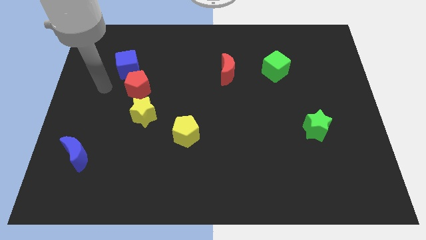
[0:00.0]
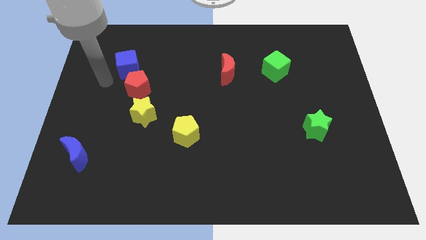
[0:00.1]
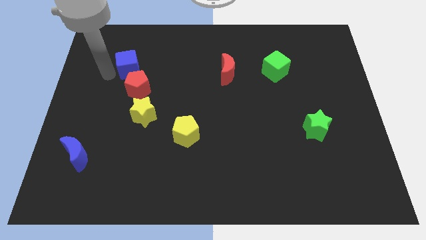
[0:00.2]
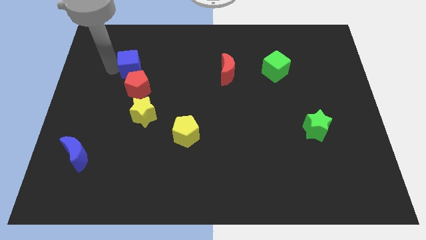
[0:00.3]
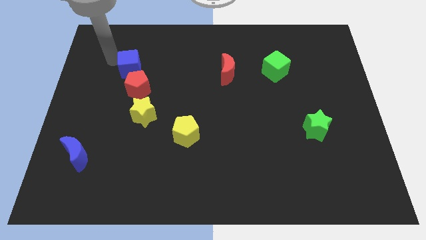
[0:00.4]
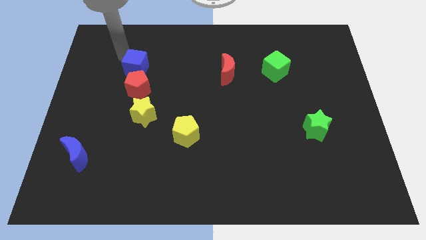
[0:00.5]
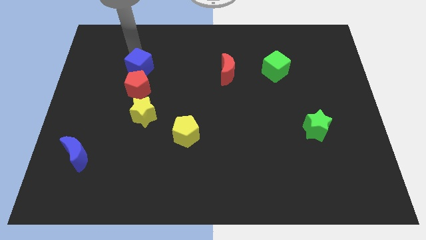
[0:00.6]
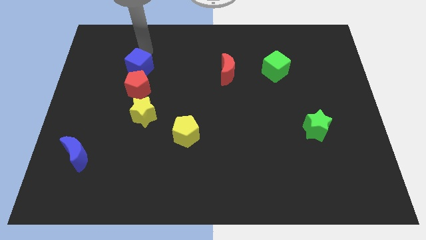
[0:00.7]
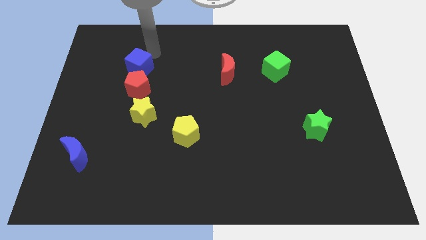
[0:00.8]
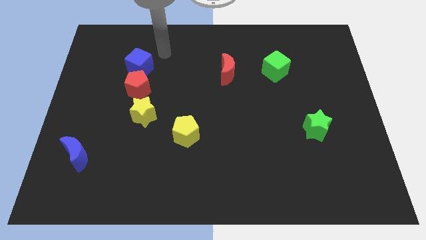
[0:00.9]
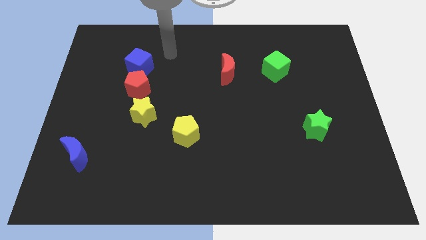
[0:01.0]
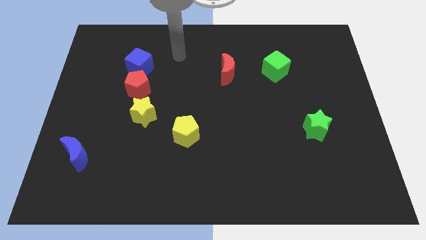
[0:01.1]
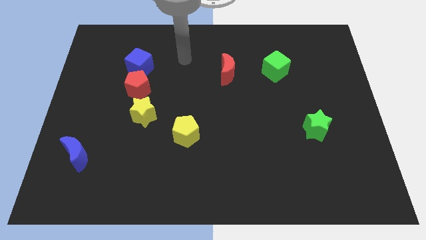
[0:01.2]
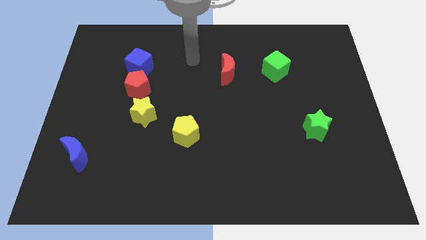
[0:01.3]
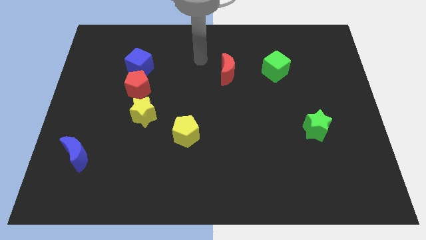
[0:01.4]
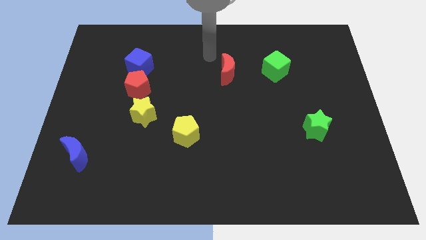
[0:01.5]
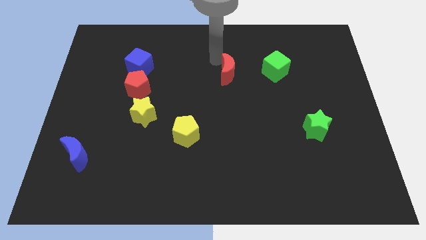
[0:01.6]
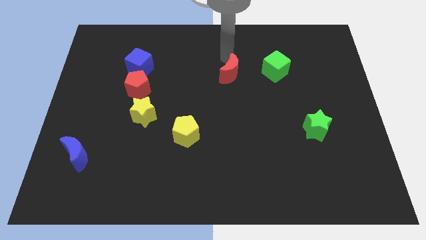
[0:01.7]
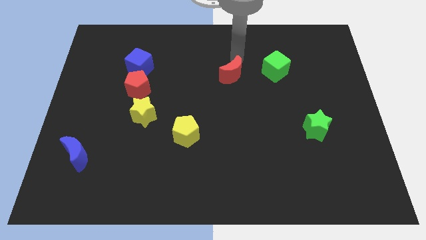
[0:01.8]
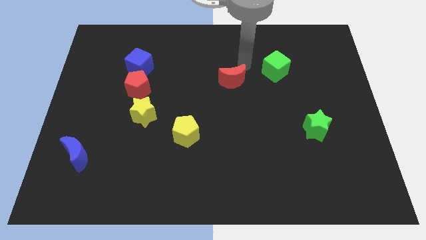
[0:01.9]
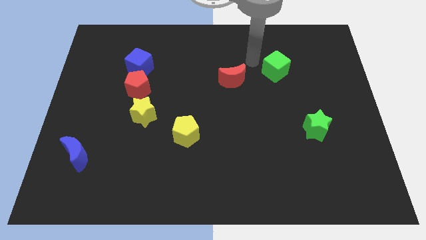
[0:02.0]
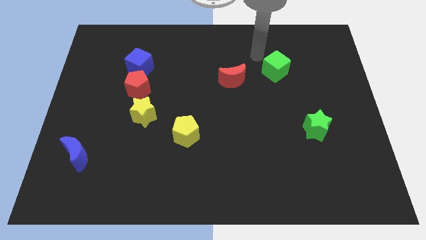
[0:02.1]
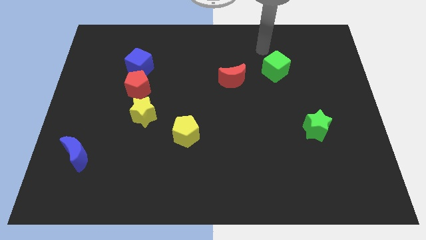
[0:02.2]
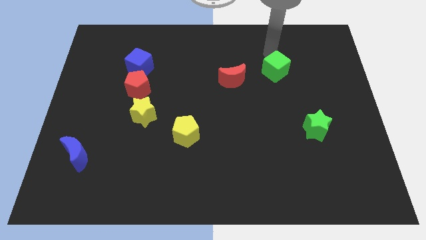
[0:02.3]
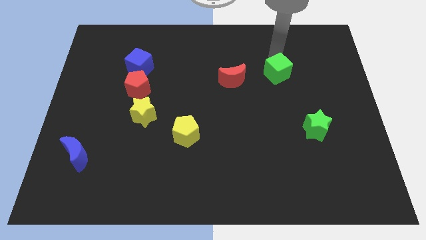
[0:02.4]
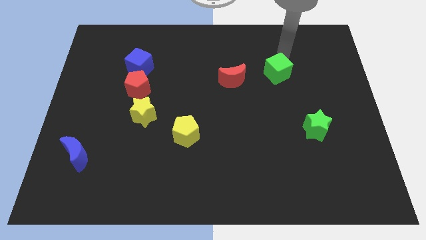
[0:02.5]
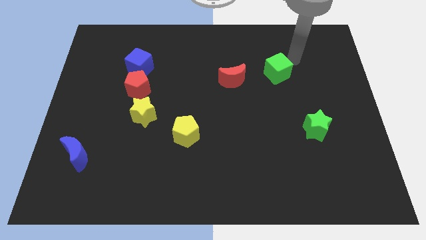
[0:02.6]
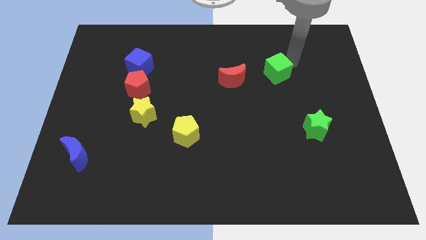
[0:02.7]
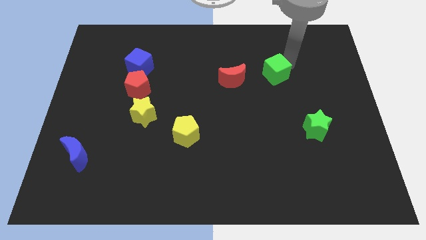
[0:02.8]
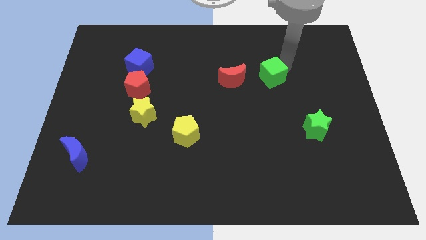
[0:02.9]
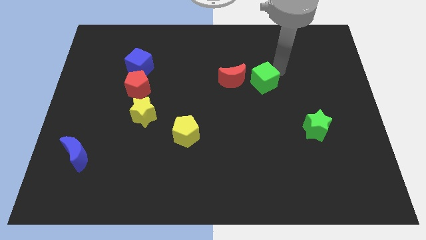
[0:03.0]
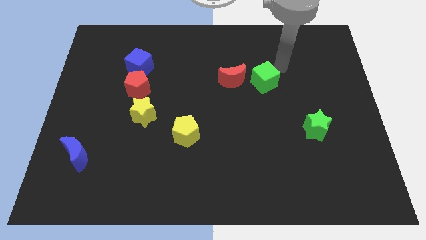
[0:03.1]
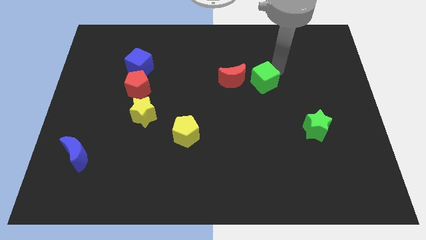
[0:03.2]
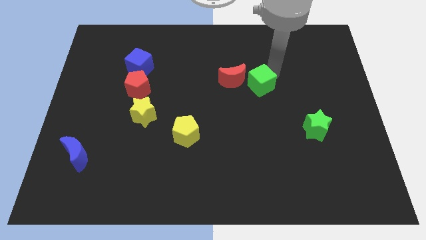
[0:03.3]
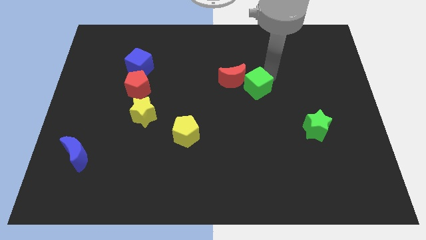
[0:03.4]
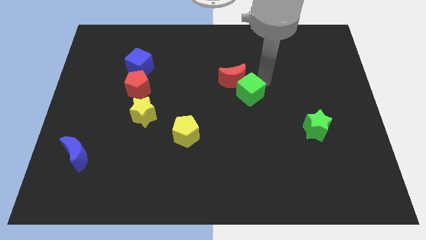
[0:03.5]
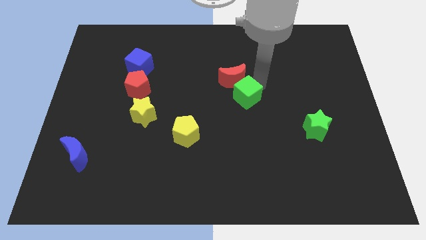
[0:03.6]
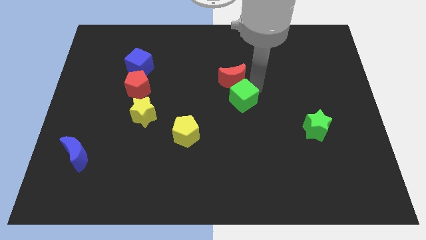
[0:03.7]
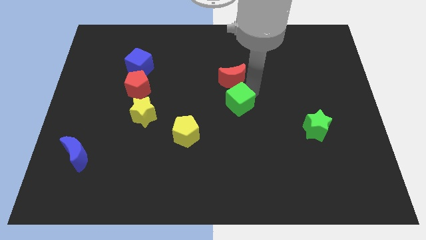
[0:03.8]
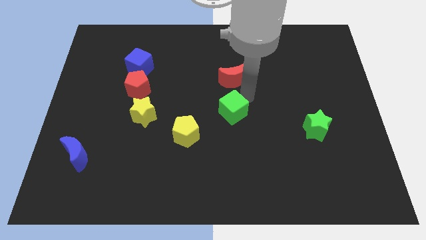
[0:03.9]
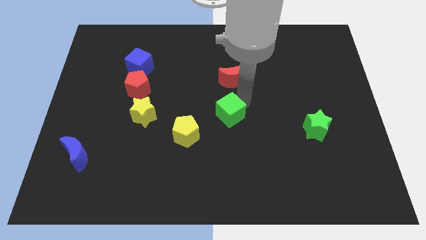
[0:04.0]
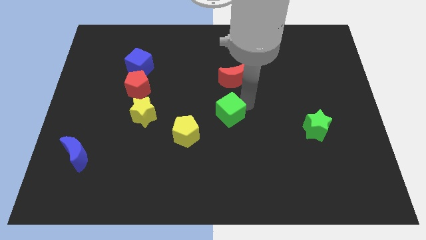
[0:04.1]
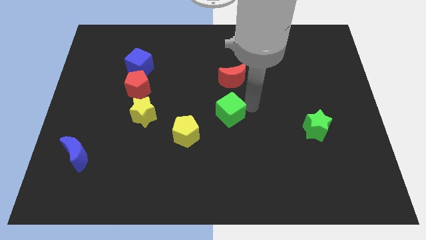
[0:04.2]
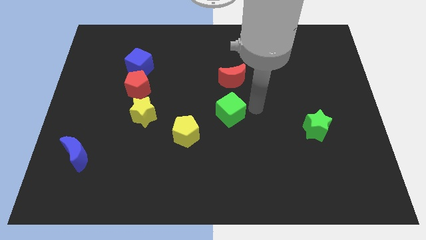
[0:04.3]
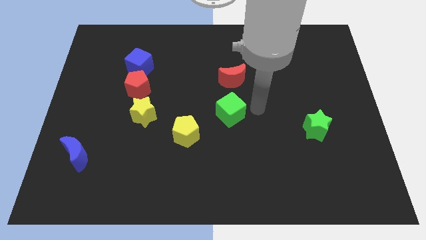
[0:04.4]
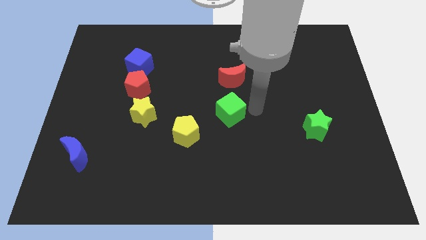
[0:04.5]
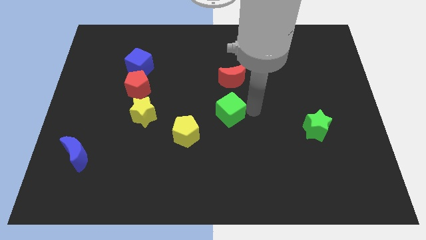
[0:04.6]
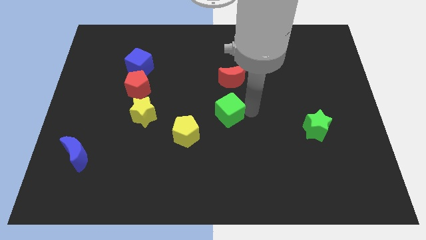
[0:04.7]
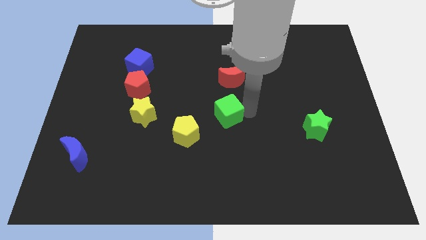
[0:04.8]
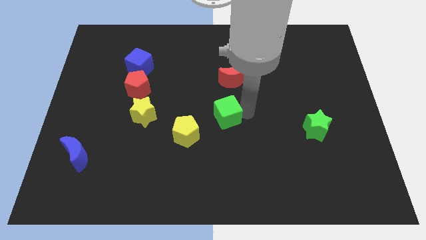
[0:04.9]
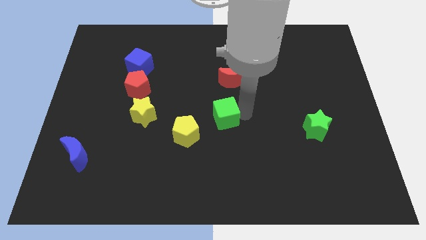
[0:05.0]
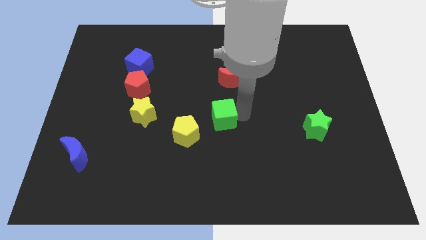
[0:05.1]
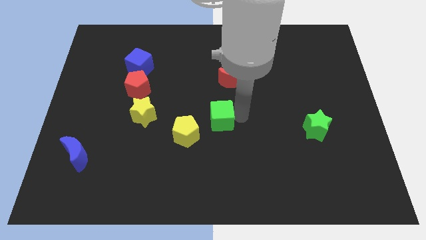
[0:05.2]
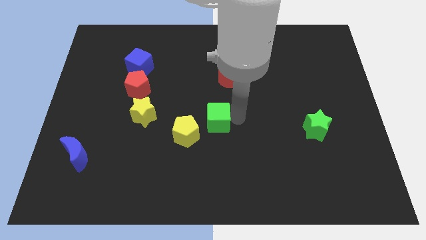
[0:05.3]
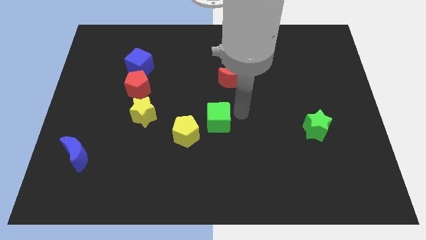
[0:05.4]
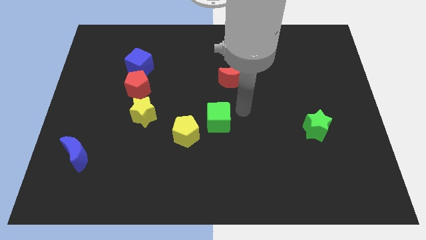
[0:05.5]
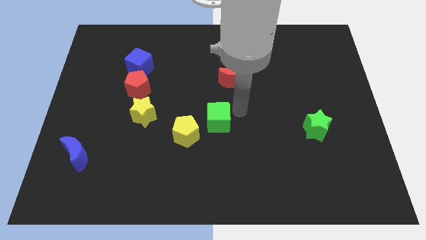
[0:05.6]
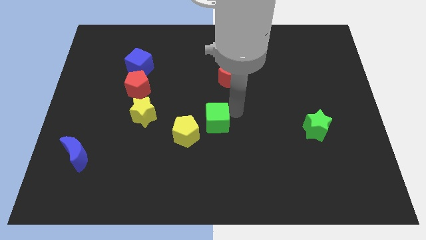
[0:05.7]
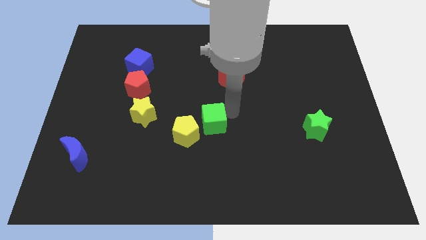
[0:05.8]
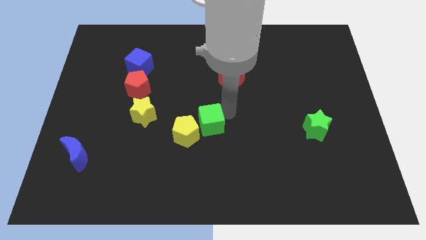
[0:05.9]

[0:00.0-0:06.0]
slide the green cube to the yellow pentagon

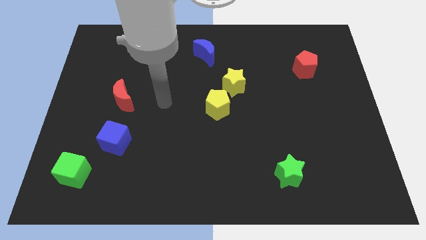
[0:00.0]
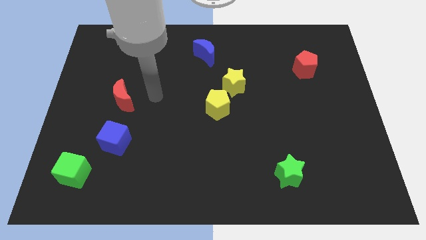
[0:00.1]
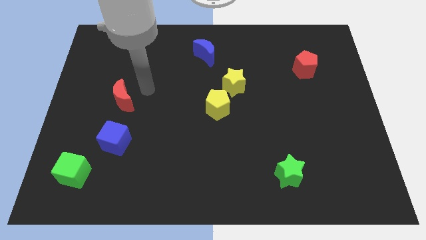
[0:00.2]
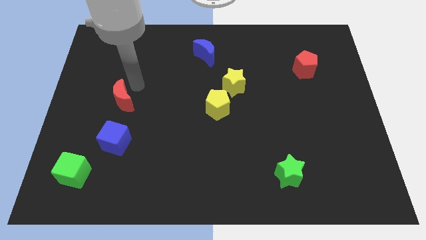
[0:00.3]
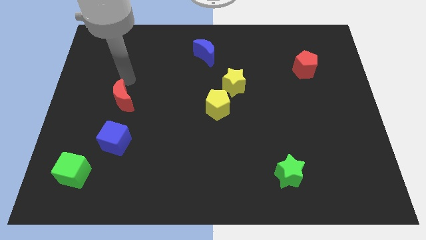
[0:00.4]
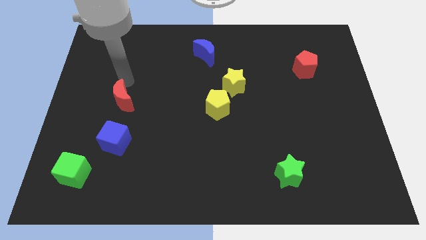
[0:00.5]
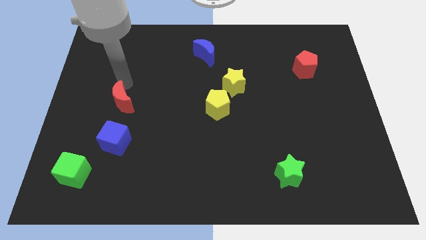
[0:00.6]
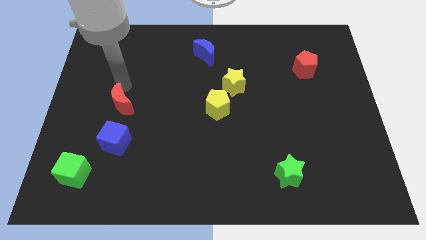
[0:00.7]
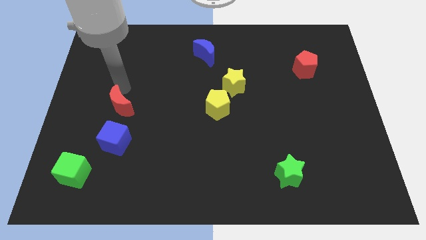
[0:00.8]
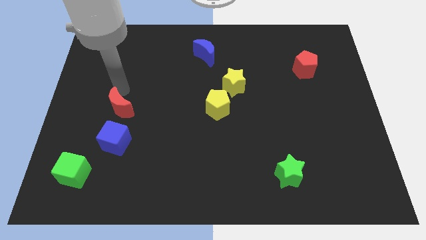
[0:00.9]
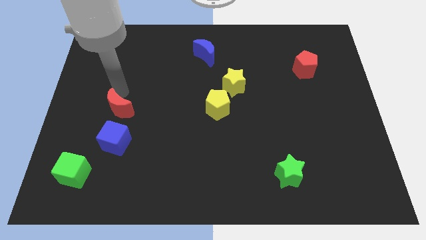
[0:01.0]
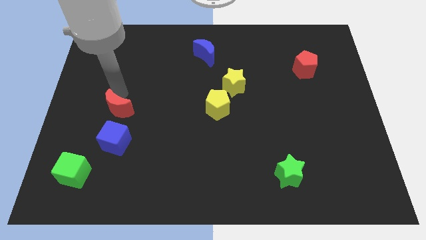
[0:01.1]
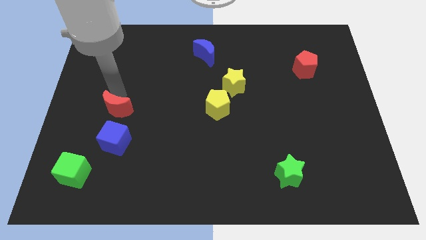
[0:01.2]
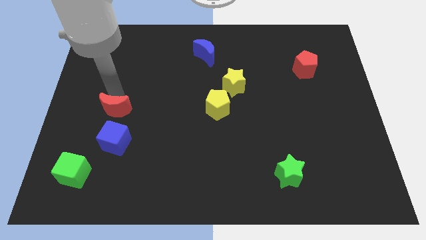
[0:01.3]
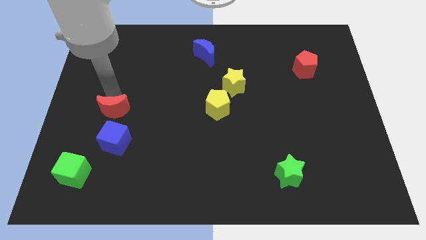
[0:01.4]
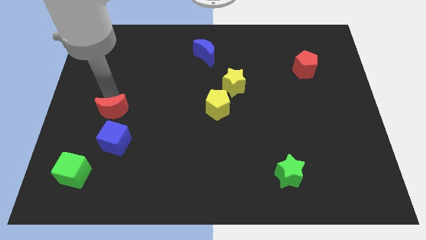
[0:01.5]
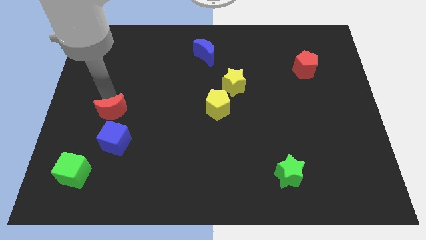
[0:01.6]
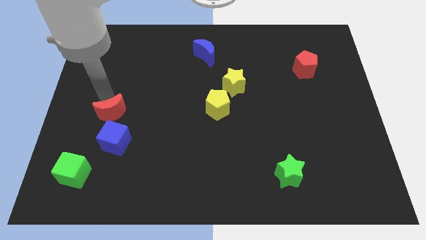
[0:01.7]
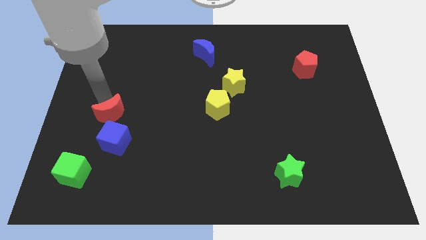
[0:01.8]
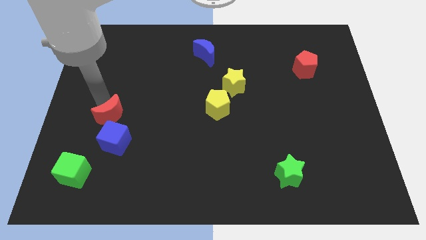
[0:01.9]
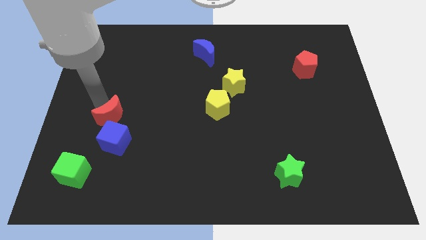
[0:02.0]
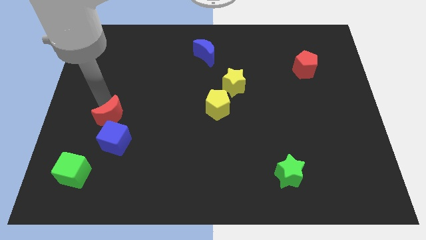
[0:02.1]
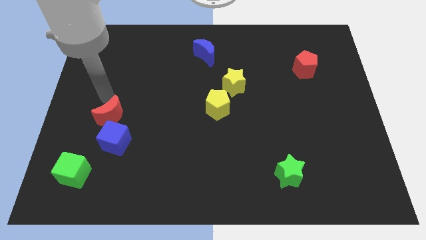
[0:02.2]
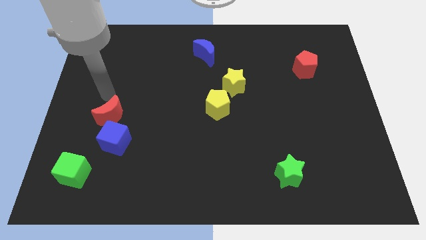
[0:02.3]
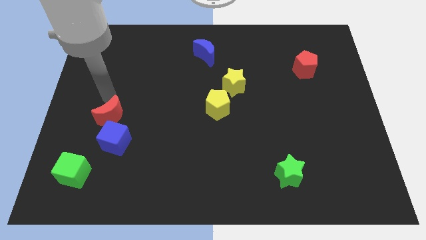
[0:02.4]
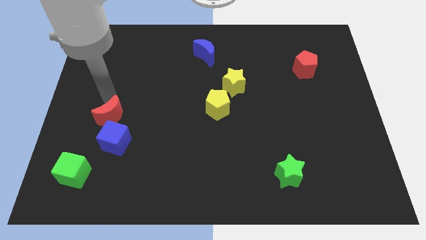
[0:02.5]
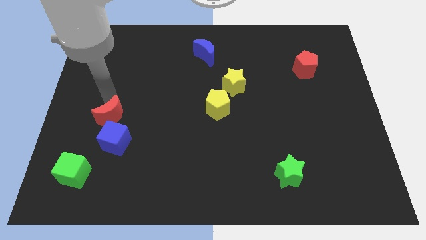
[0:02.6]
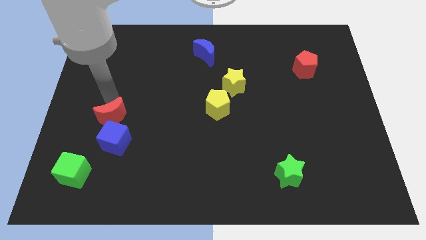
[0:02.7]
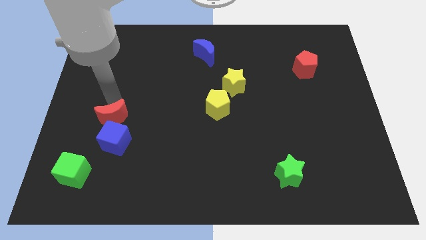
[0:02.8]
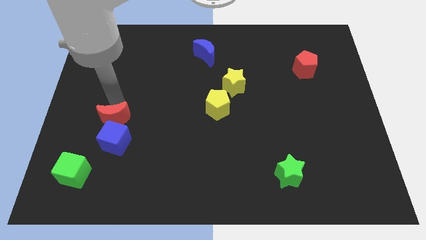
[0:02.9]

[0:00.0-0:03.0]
slide the red moon next to the blue cube
